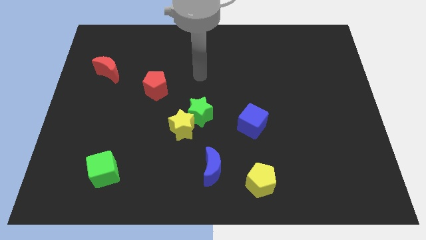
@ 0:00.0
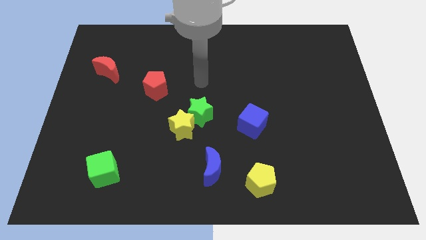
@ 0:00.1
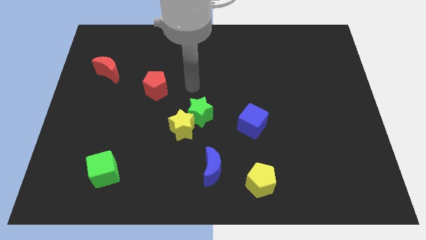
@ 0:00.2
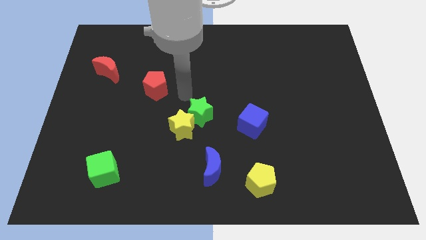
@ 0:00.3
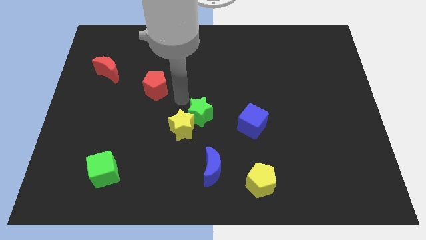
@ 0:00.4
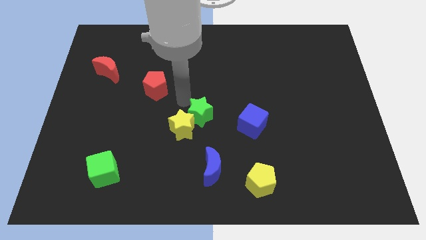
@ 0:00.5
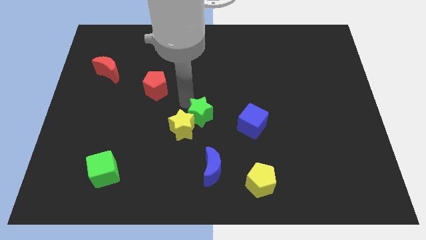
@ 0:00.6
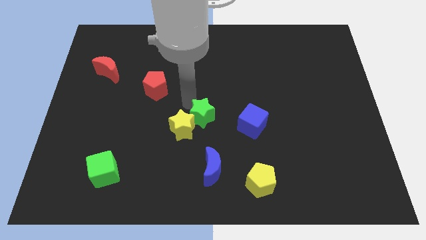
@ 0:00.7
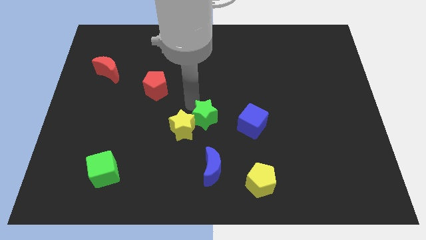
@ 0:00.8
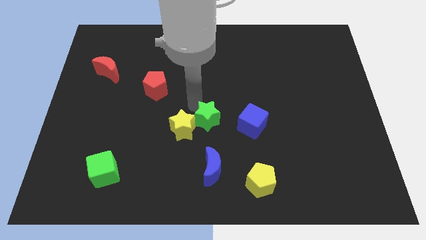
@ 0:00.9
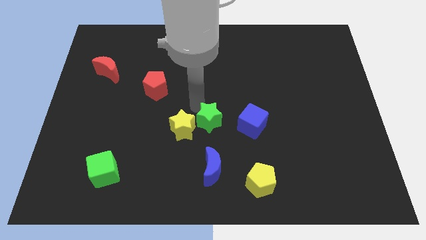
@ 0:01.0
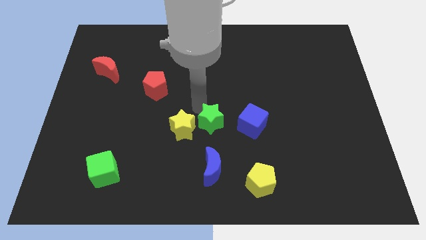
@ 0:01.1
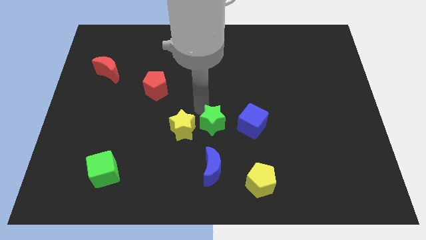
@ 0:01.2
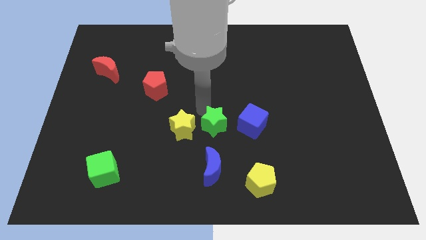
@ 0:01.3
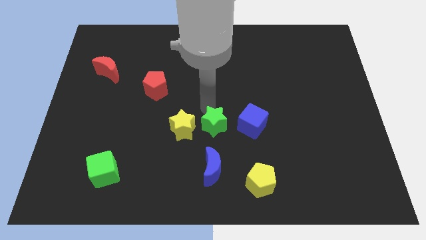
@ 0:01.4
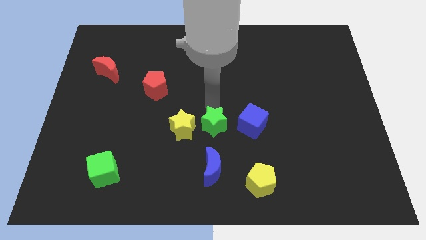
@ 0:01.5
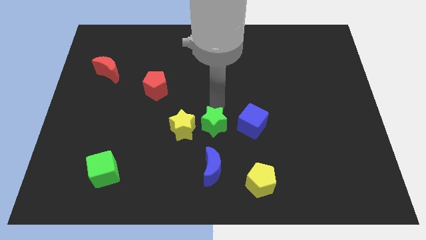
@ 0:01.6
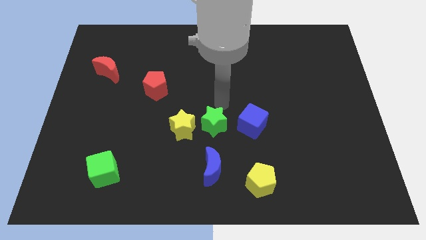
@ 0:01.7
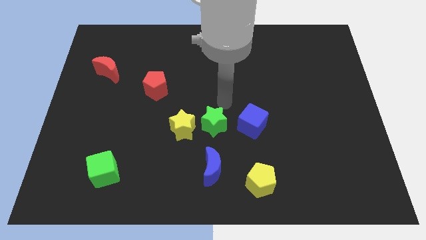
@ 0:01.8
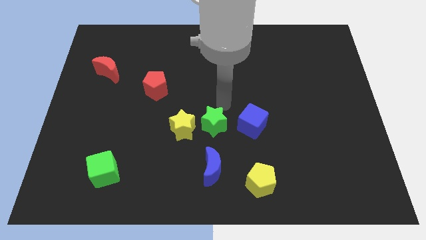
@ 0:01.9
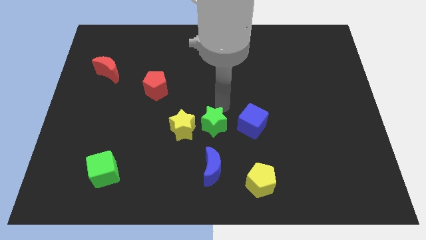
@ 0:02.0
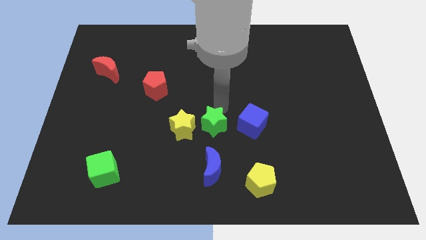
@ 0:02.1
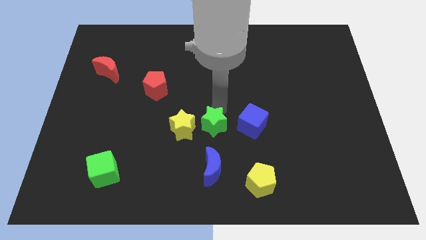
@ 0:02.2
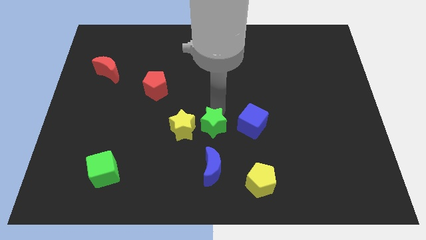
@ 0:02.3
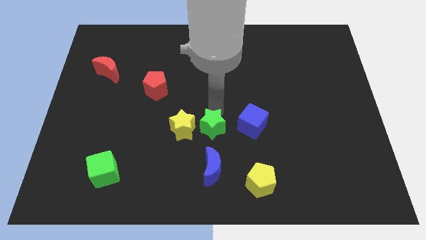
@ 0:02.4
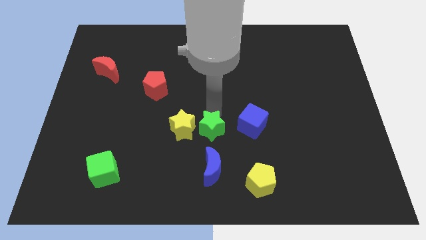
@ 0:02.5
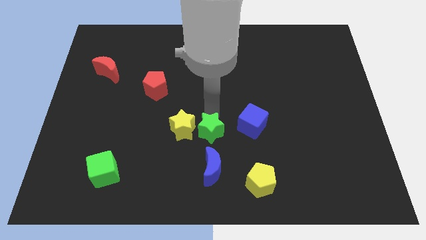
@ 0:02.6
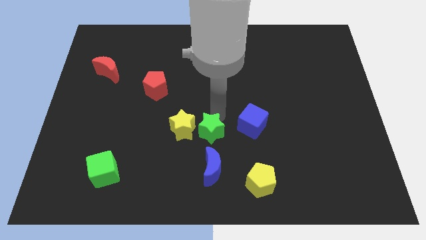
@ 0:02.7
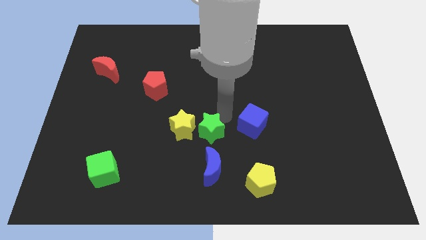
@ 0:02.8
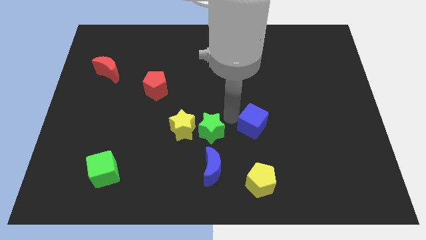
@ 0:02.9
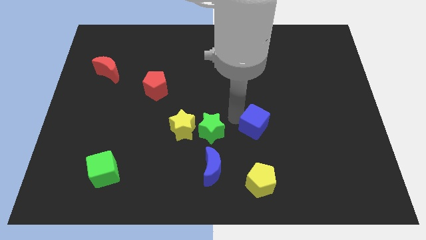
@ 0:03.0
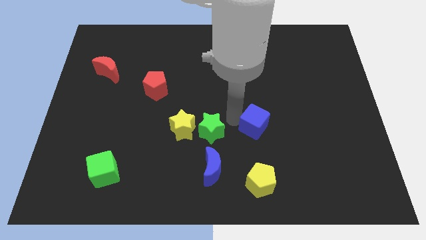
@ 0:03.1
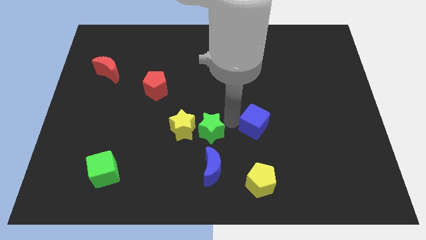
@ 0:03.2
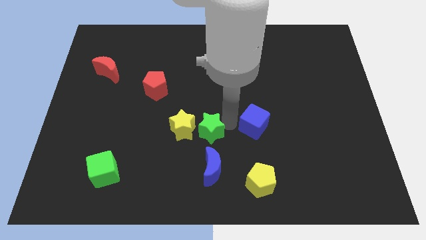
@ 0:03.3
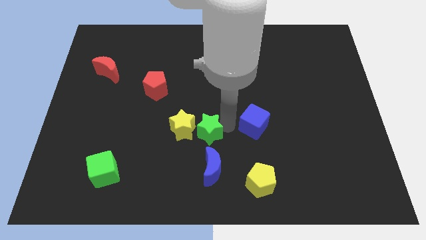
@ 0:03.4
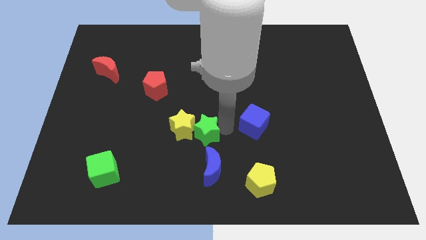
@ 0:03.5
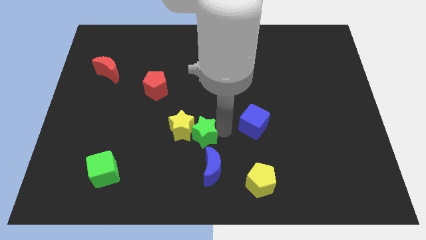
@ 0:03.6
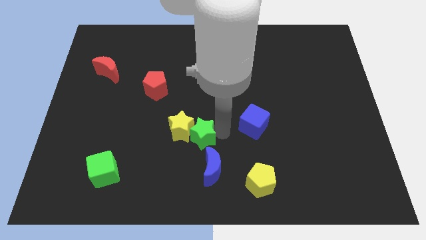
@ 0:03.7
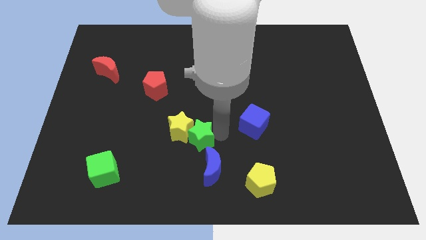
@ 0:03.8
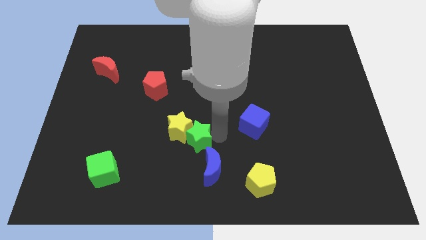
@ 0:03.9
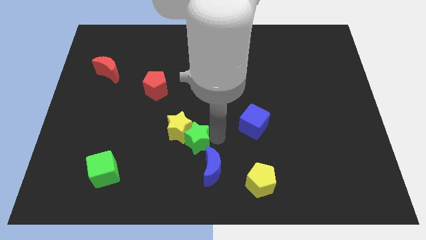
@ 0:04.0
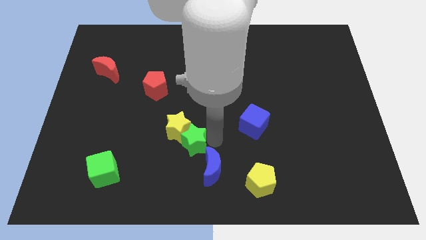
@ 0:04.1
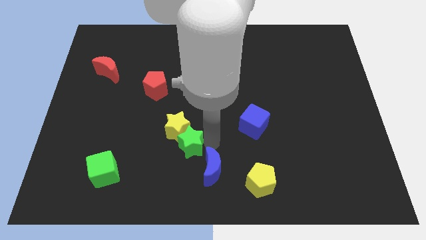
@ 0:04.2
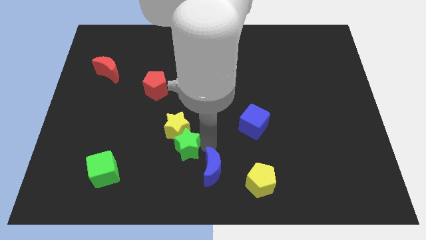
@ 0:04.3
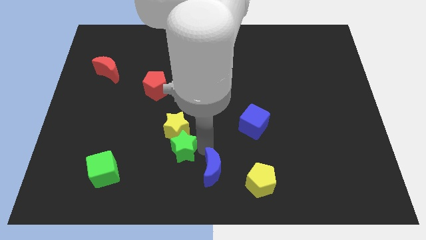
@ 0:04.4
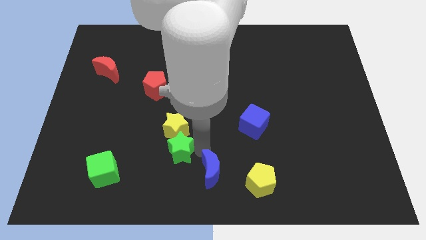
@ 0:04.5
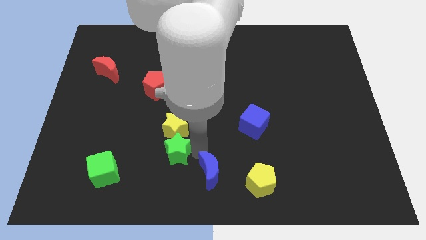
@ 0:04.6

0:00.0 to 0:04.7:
push the green star to the bottom left side of the yellow star

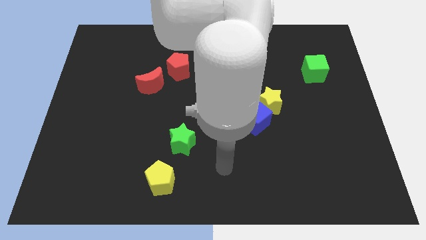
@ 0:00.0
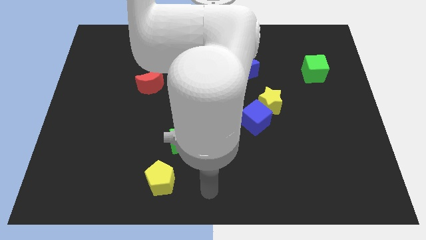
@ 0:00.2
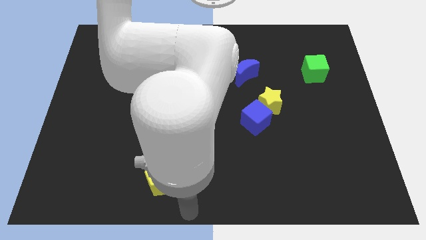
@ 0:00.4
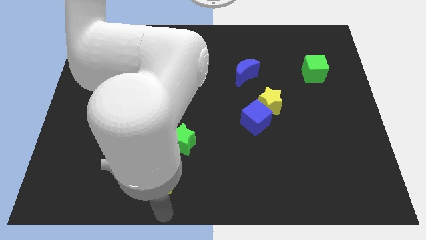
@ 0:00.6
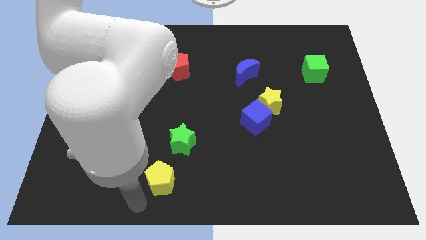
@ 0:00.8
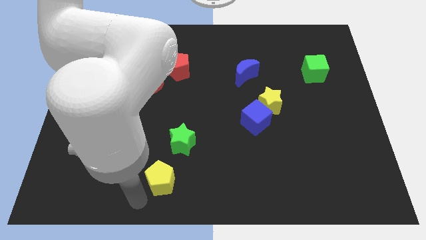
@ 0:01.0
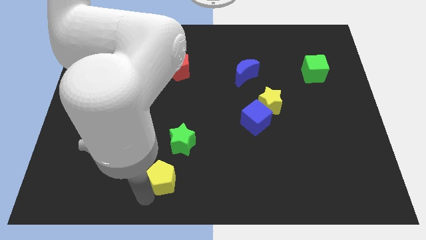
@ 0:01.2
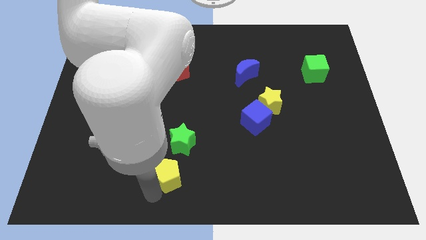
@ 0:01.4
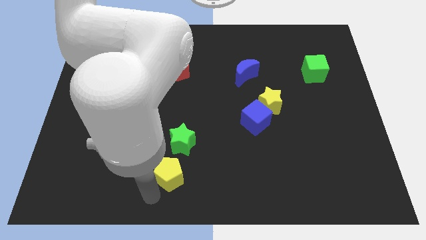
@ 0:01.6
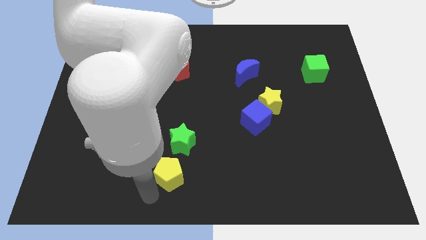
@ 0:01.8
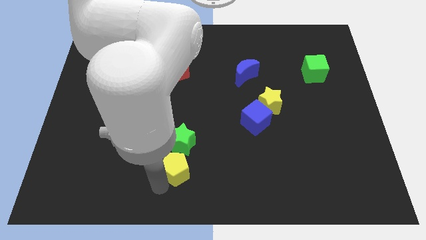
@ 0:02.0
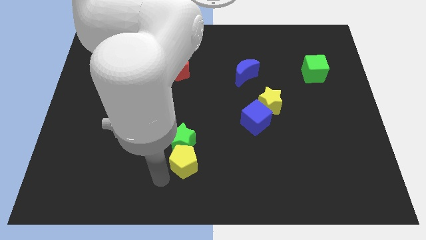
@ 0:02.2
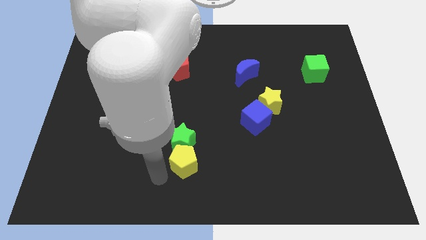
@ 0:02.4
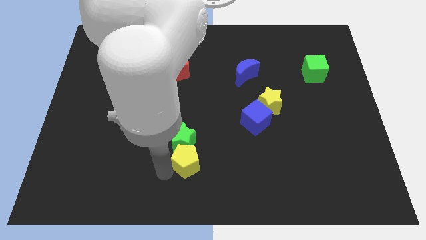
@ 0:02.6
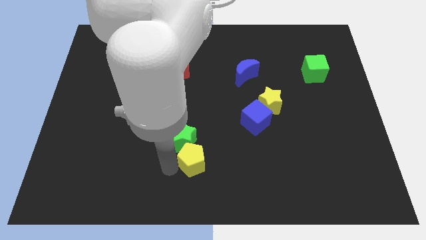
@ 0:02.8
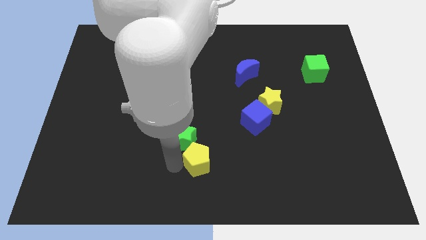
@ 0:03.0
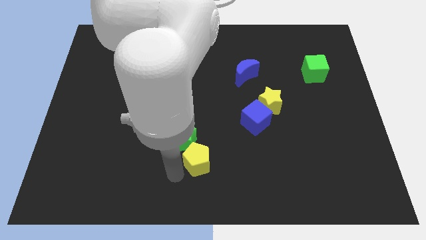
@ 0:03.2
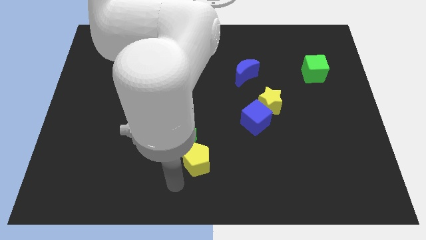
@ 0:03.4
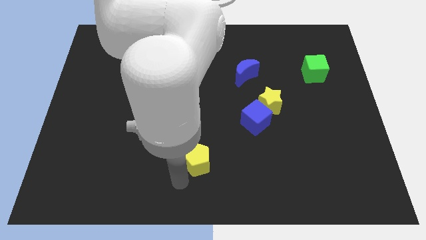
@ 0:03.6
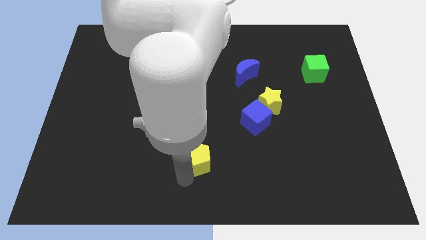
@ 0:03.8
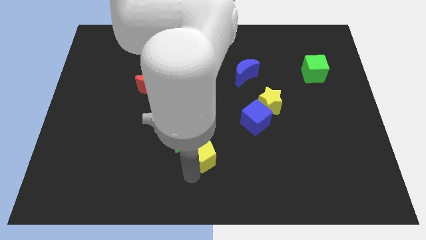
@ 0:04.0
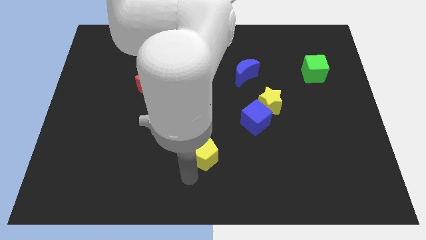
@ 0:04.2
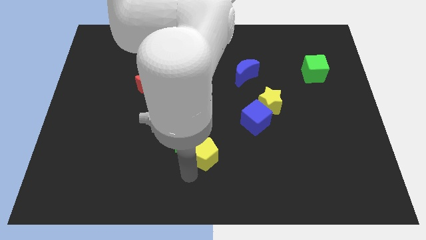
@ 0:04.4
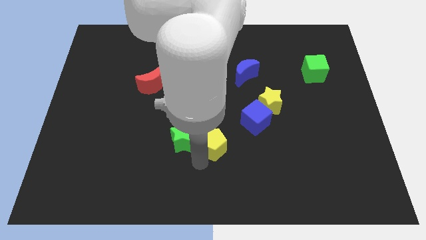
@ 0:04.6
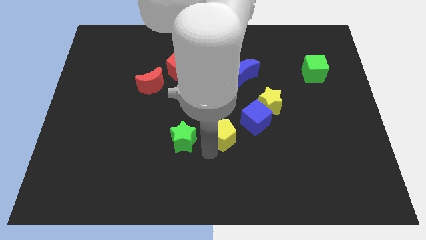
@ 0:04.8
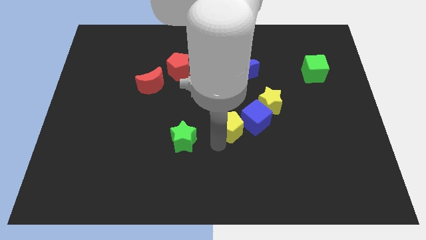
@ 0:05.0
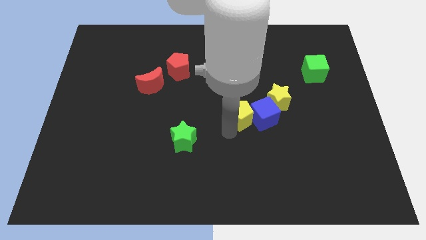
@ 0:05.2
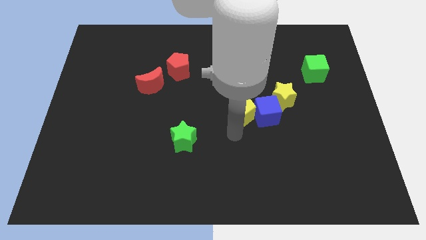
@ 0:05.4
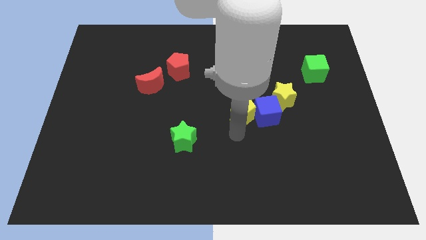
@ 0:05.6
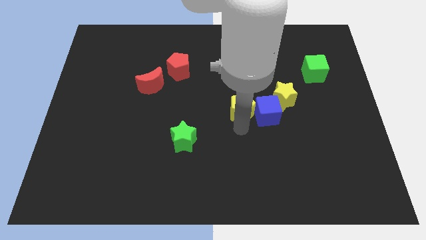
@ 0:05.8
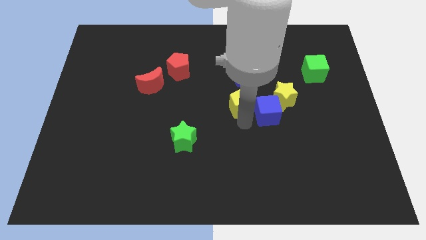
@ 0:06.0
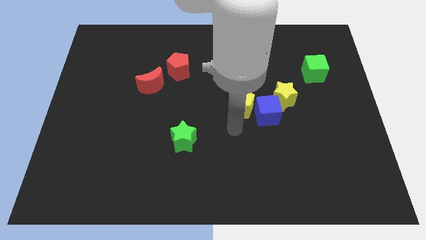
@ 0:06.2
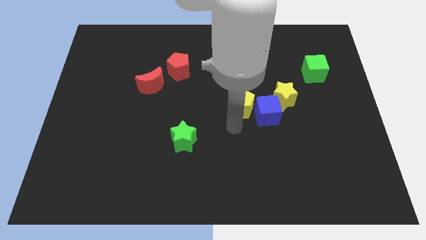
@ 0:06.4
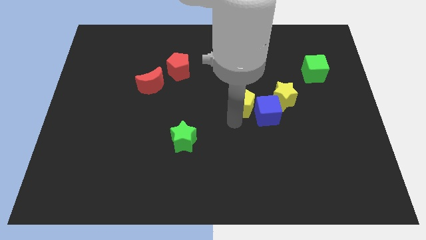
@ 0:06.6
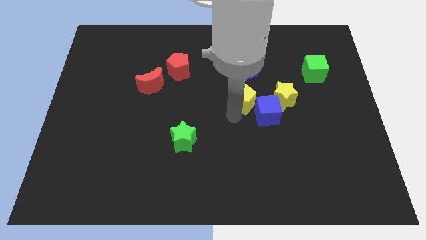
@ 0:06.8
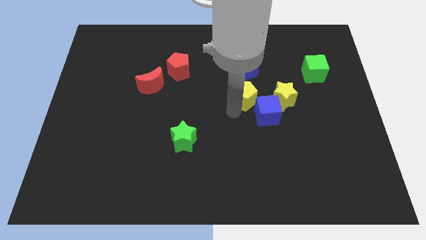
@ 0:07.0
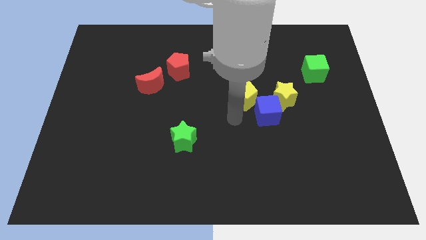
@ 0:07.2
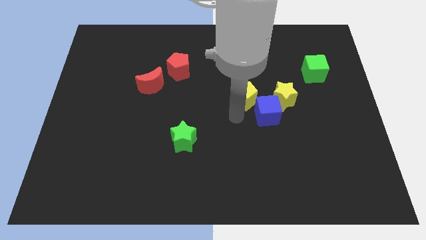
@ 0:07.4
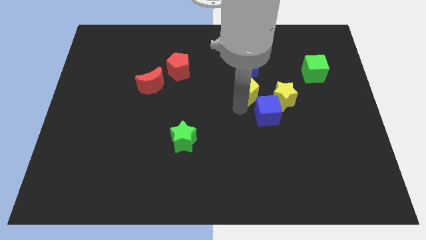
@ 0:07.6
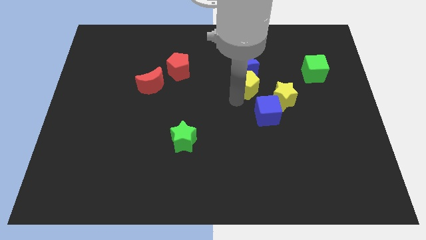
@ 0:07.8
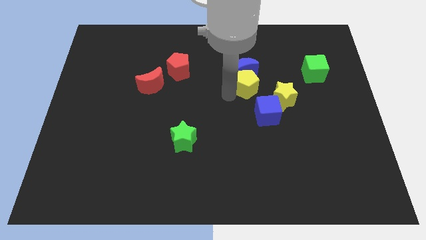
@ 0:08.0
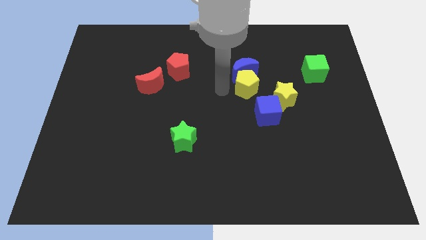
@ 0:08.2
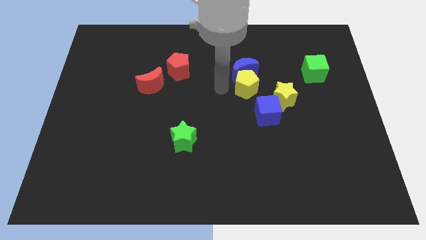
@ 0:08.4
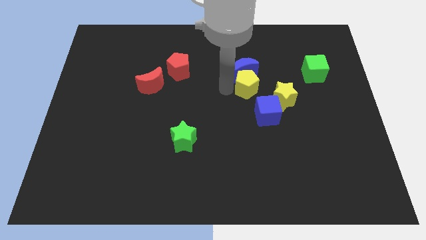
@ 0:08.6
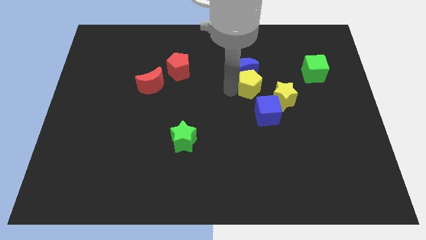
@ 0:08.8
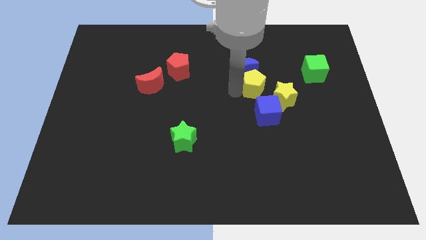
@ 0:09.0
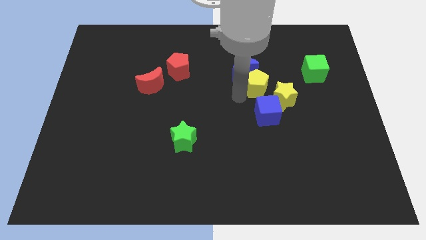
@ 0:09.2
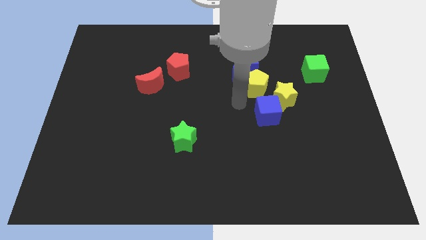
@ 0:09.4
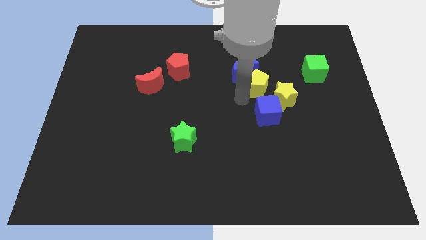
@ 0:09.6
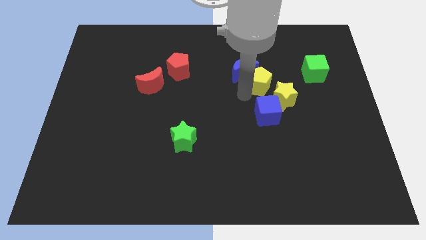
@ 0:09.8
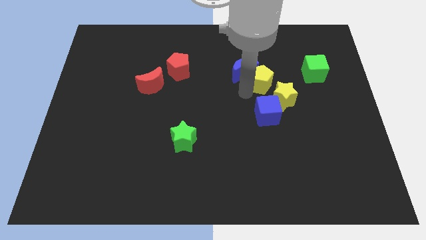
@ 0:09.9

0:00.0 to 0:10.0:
move the yellow pentagon to the left side of the green cube
